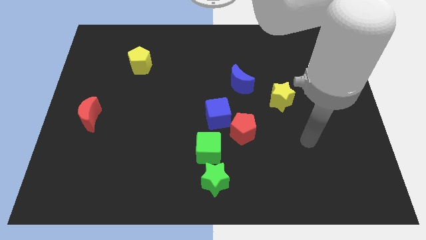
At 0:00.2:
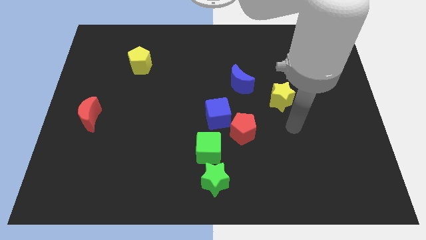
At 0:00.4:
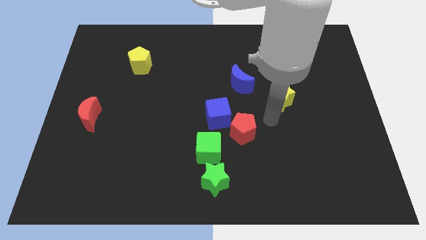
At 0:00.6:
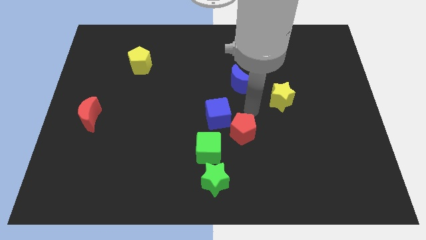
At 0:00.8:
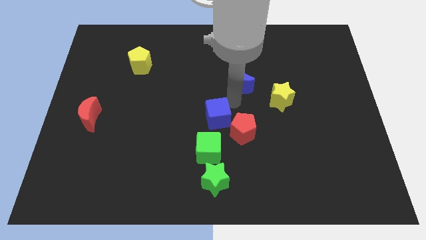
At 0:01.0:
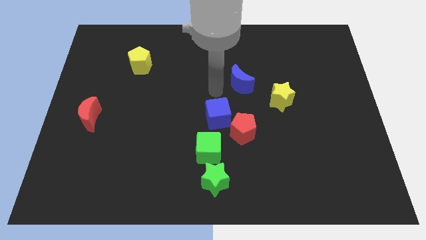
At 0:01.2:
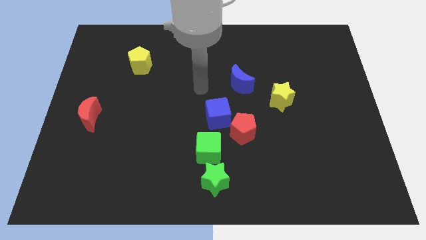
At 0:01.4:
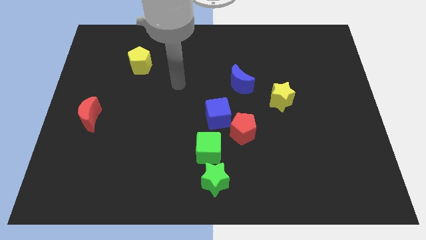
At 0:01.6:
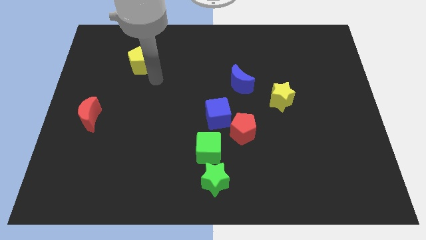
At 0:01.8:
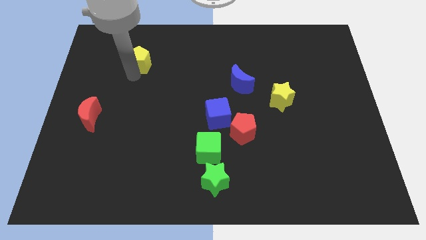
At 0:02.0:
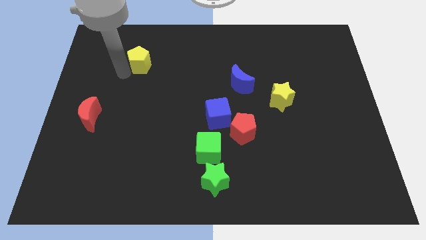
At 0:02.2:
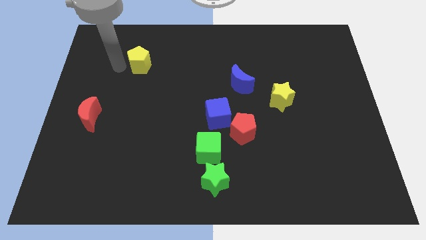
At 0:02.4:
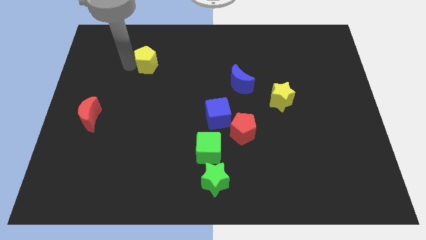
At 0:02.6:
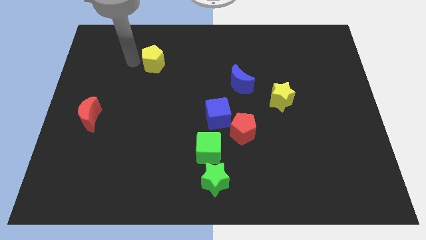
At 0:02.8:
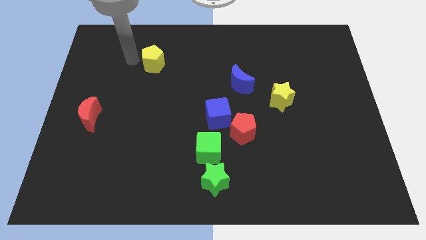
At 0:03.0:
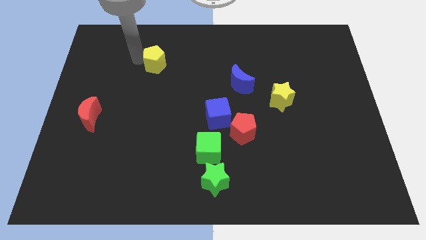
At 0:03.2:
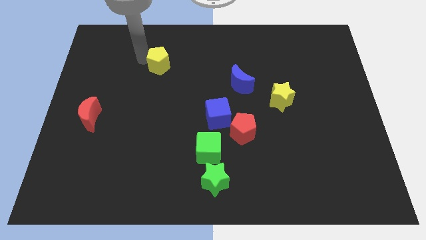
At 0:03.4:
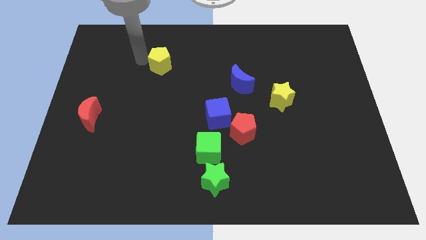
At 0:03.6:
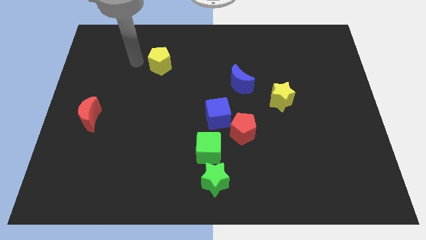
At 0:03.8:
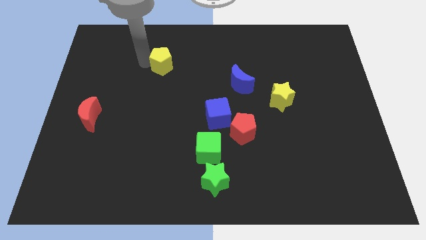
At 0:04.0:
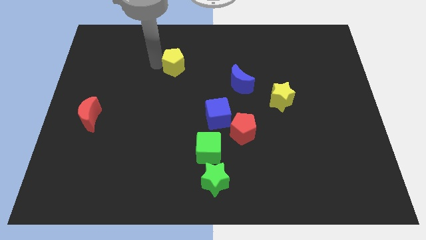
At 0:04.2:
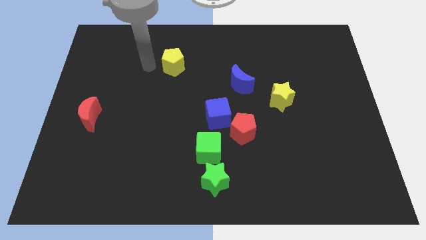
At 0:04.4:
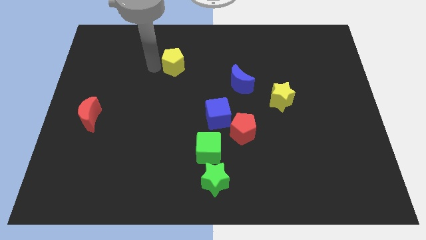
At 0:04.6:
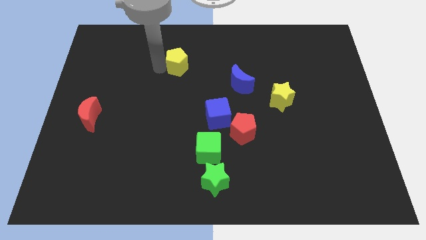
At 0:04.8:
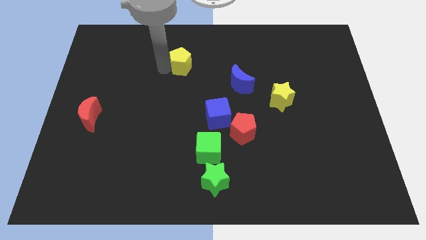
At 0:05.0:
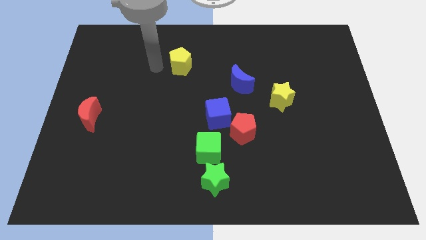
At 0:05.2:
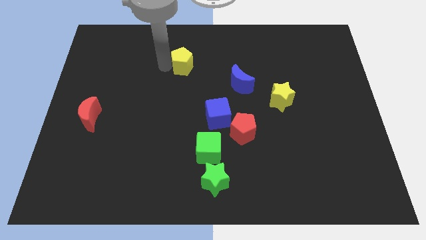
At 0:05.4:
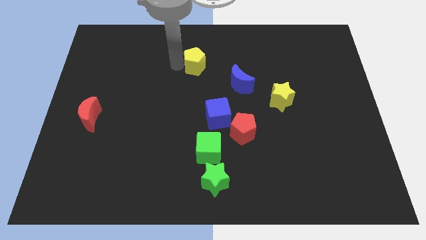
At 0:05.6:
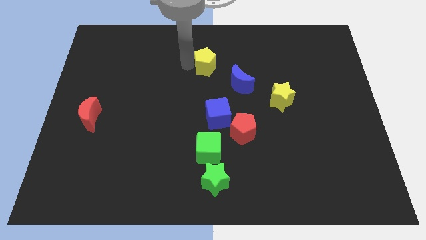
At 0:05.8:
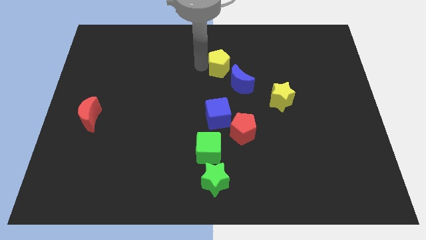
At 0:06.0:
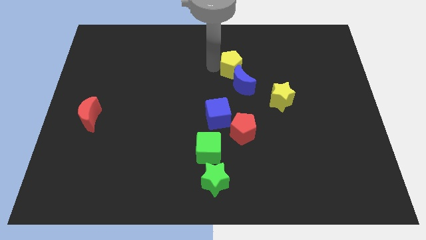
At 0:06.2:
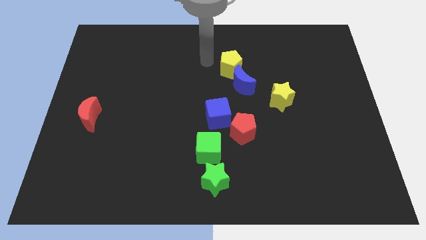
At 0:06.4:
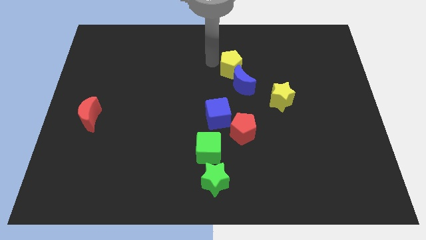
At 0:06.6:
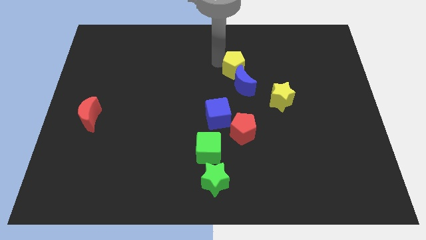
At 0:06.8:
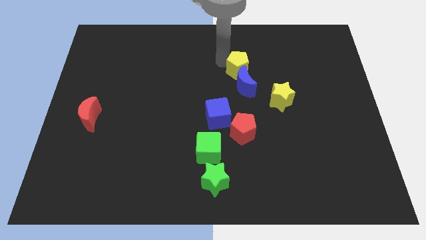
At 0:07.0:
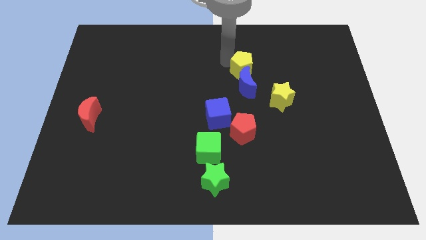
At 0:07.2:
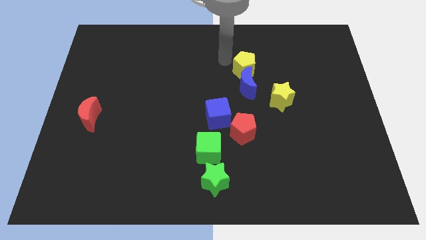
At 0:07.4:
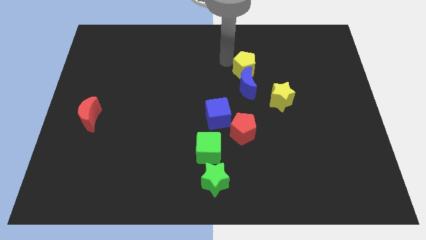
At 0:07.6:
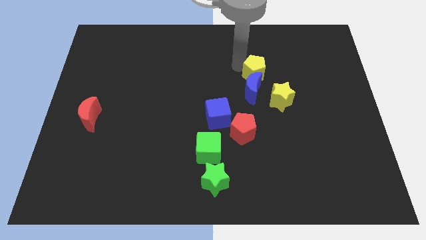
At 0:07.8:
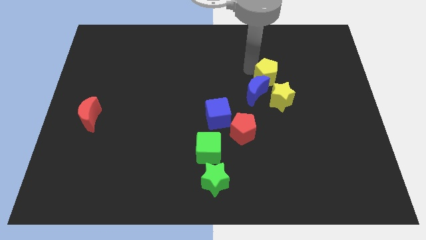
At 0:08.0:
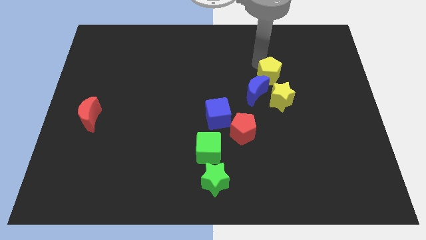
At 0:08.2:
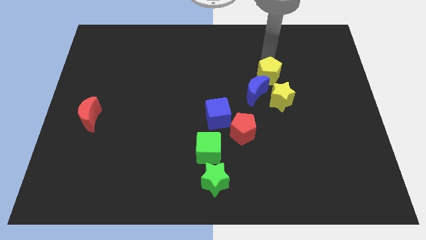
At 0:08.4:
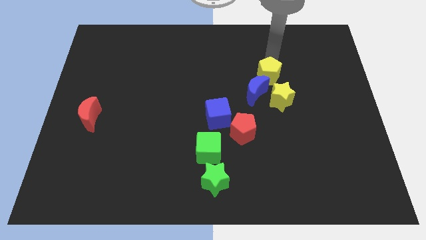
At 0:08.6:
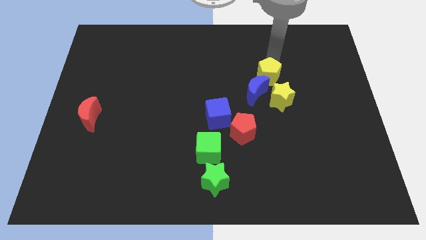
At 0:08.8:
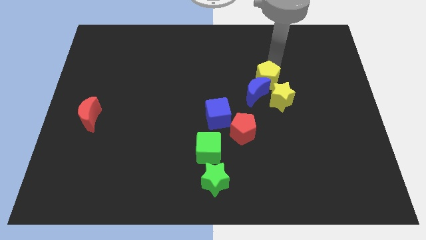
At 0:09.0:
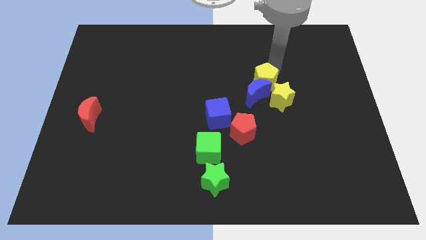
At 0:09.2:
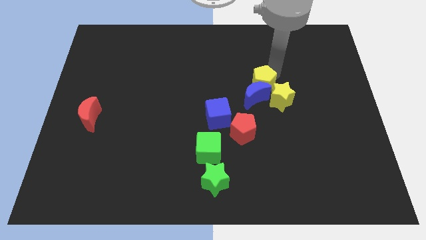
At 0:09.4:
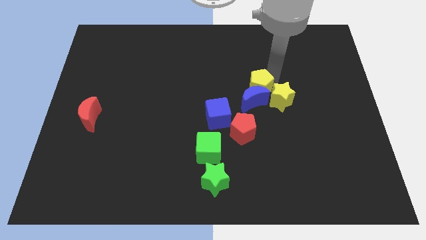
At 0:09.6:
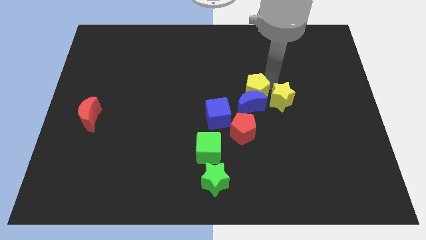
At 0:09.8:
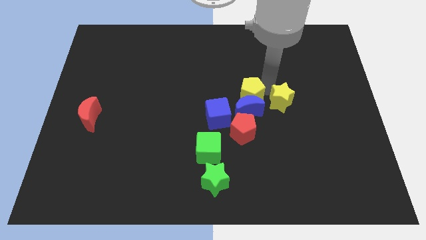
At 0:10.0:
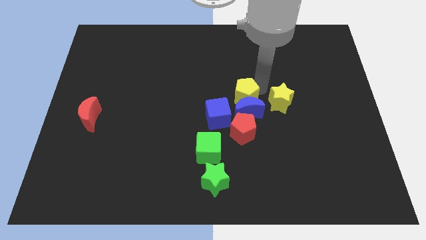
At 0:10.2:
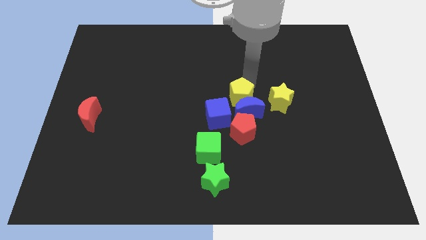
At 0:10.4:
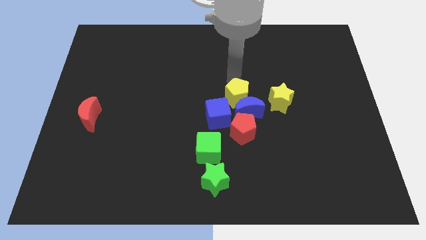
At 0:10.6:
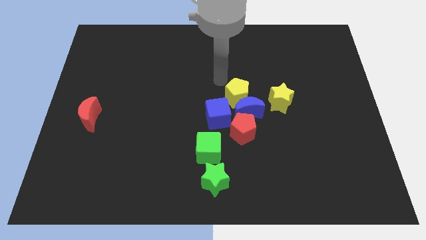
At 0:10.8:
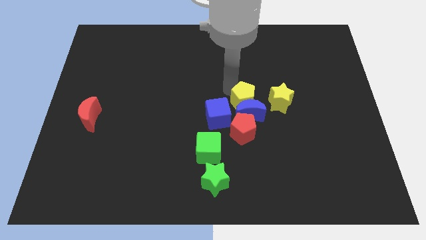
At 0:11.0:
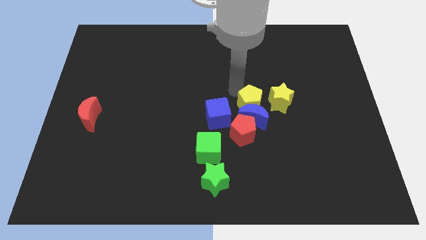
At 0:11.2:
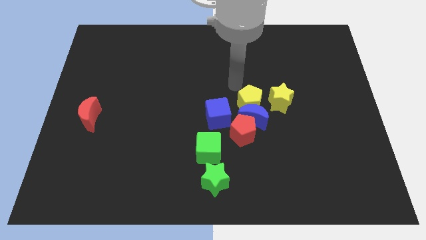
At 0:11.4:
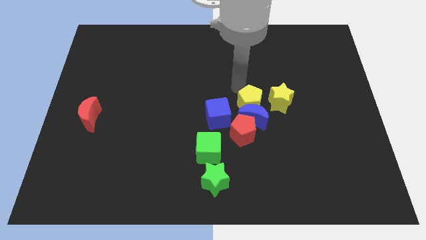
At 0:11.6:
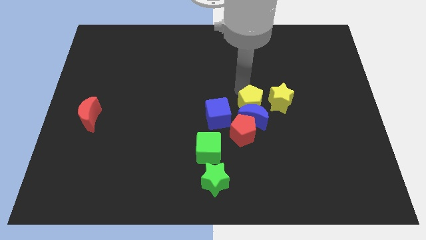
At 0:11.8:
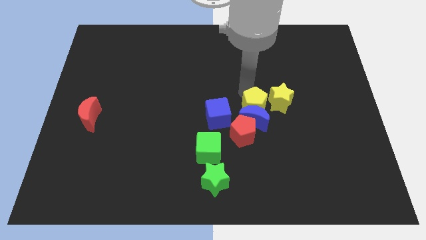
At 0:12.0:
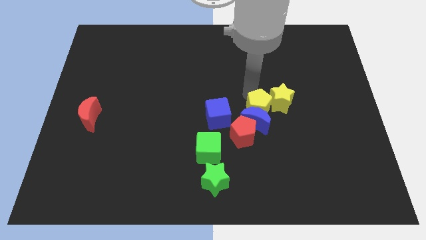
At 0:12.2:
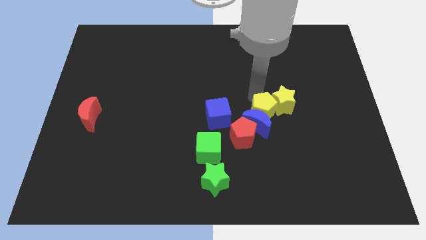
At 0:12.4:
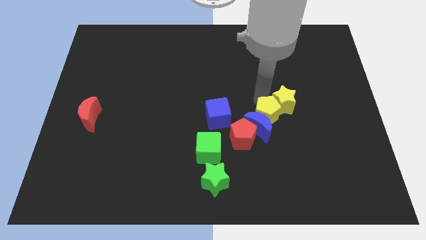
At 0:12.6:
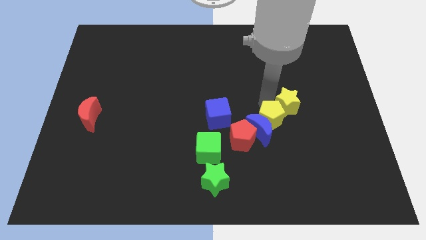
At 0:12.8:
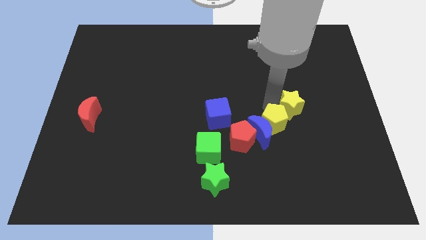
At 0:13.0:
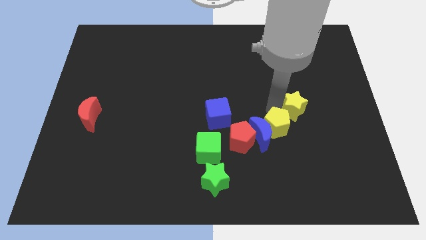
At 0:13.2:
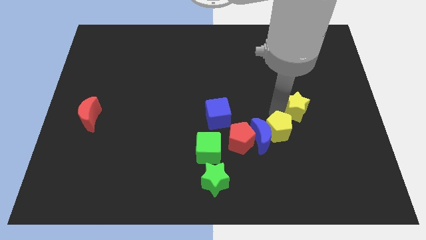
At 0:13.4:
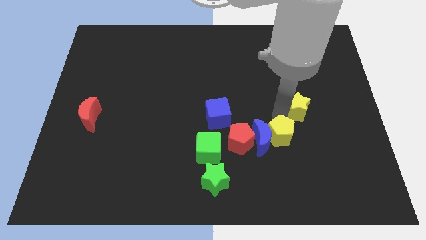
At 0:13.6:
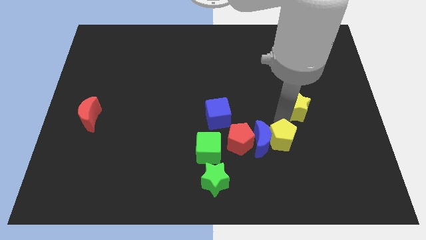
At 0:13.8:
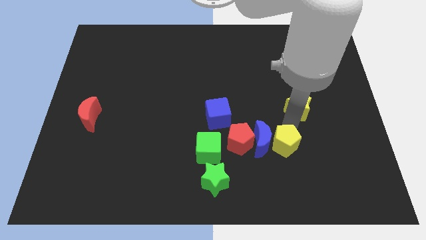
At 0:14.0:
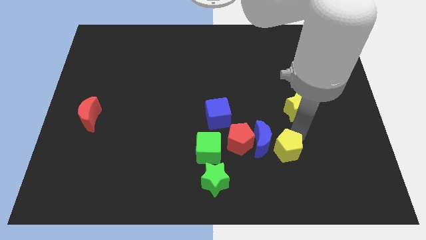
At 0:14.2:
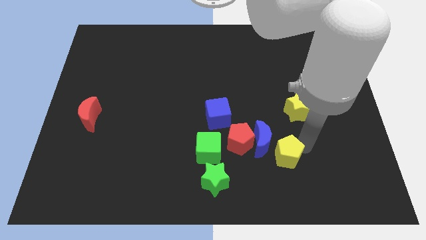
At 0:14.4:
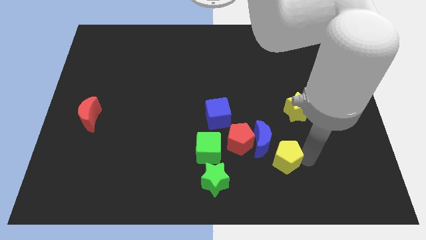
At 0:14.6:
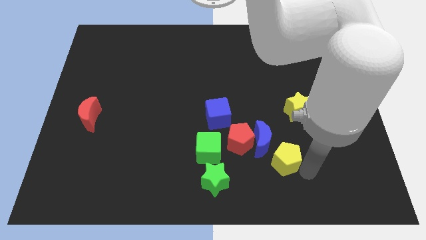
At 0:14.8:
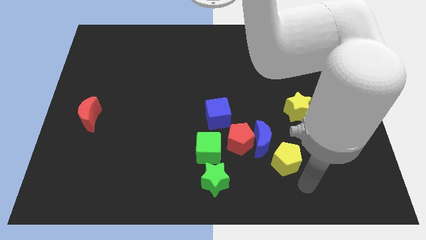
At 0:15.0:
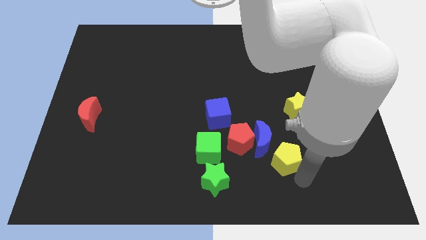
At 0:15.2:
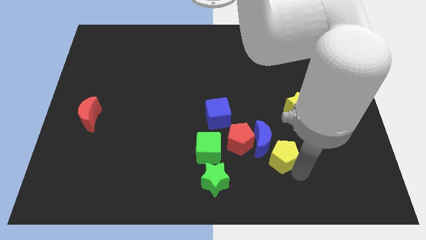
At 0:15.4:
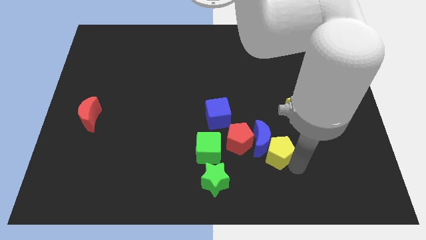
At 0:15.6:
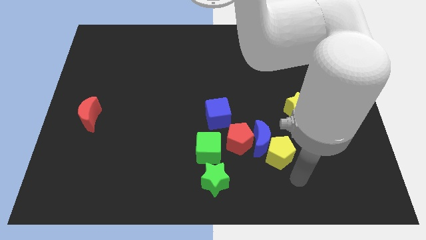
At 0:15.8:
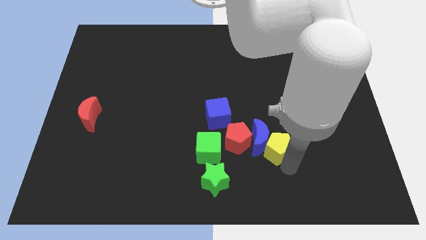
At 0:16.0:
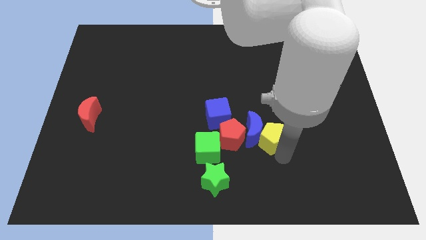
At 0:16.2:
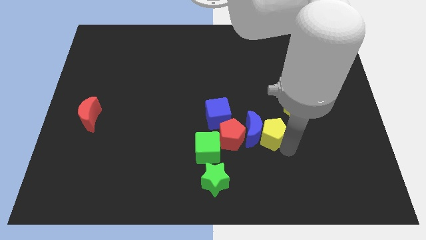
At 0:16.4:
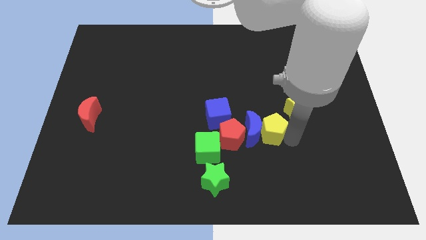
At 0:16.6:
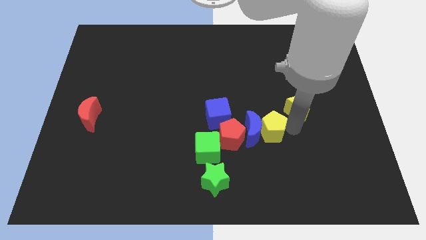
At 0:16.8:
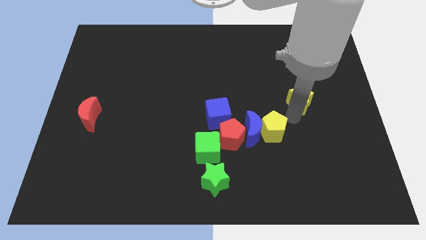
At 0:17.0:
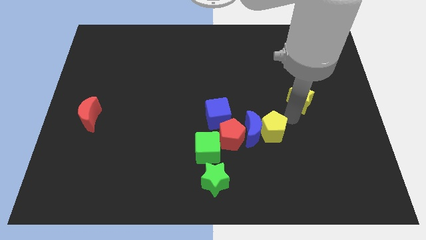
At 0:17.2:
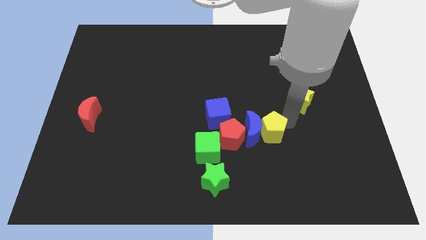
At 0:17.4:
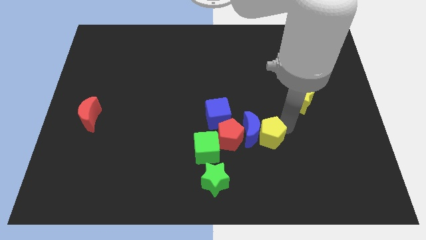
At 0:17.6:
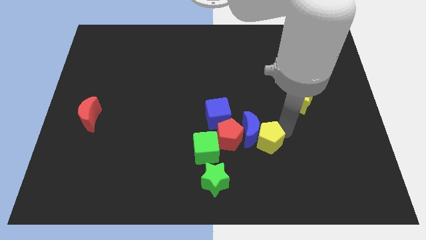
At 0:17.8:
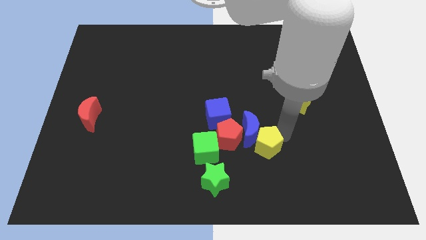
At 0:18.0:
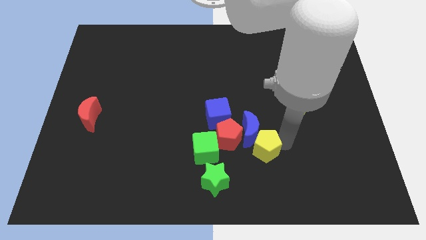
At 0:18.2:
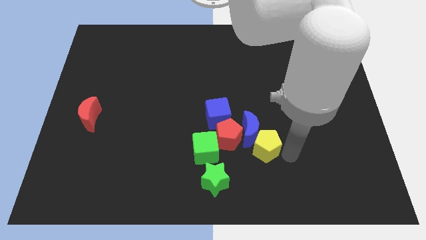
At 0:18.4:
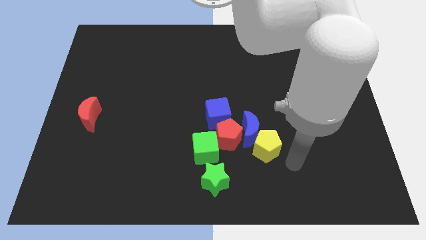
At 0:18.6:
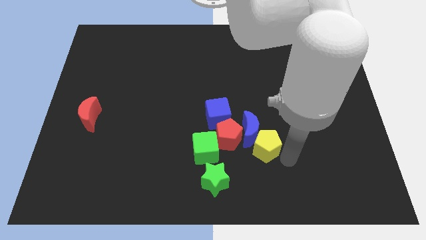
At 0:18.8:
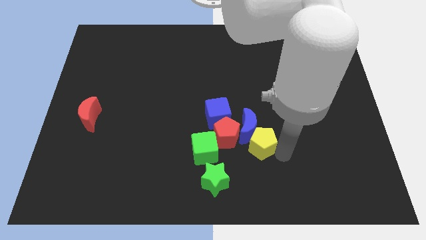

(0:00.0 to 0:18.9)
move the yellow pentagon diagonally down and to the right of the blue cube
